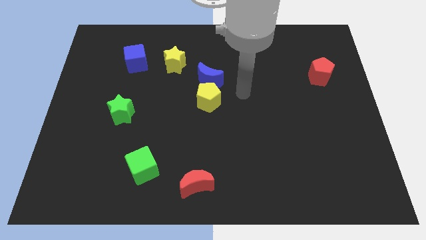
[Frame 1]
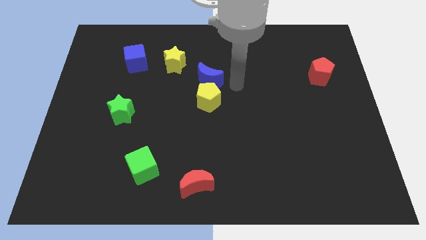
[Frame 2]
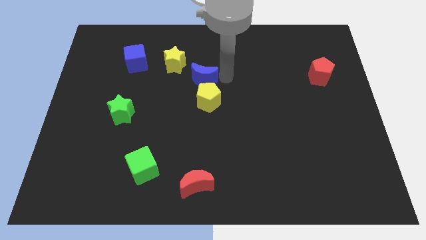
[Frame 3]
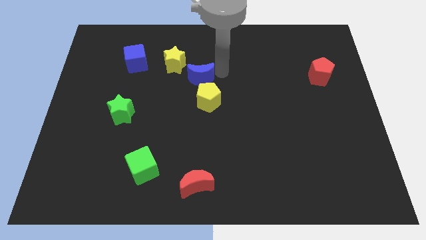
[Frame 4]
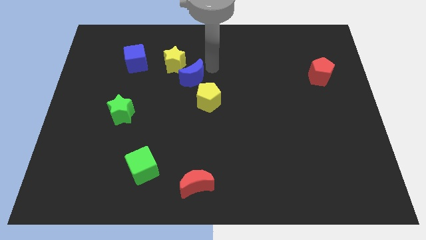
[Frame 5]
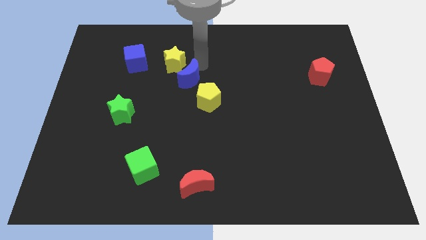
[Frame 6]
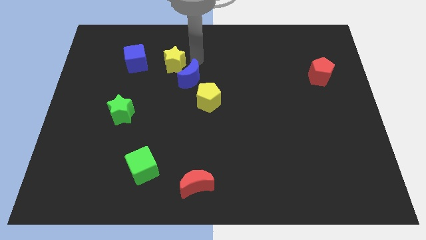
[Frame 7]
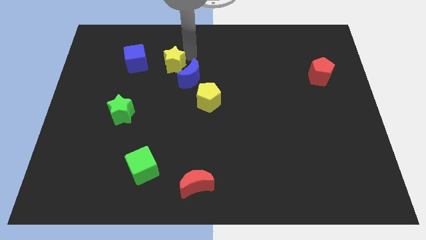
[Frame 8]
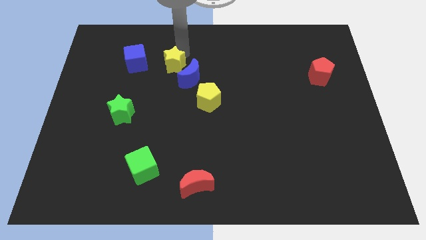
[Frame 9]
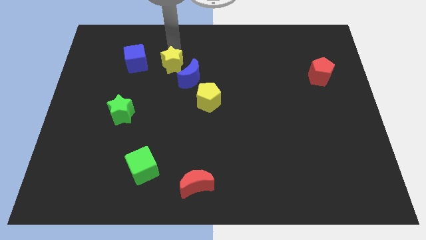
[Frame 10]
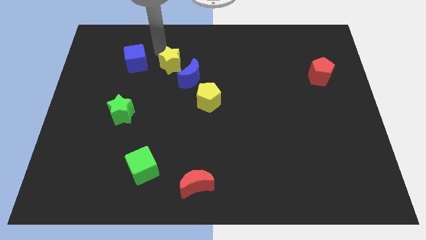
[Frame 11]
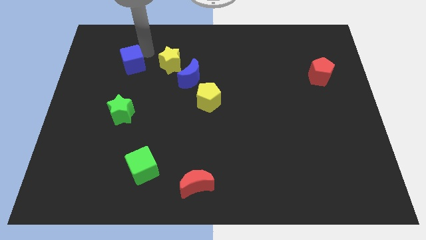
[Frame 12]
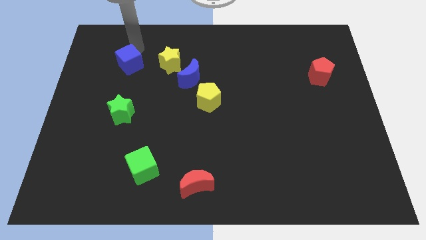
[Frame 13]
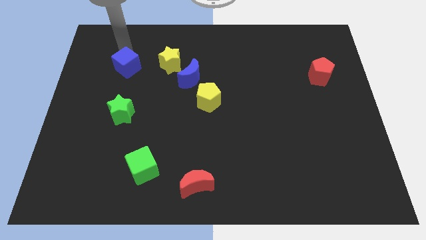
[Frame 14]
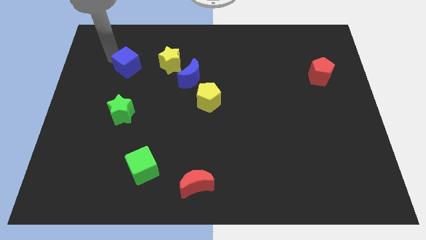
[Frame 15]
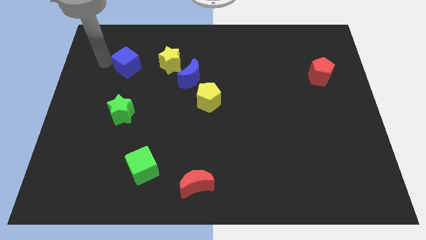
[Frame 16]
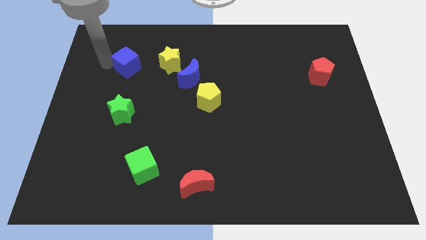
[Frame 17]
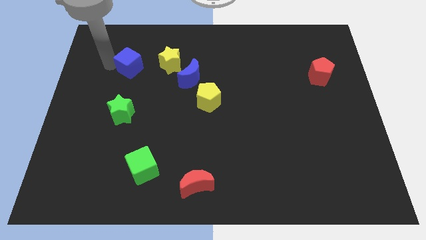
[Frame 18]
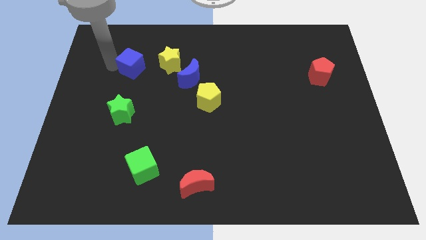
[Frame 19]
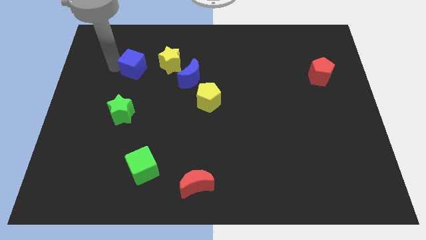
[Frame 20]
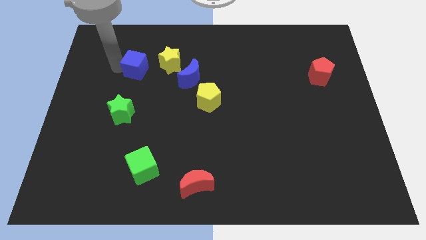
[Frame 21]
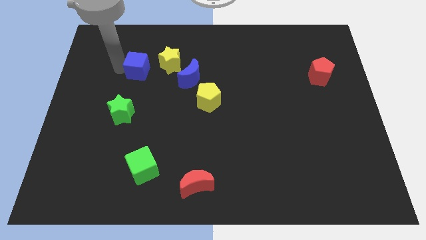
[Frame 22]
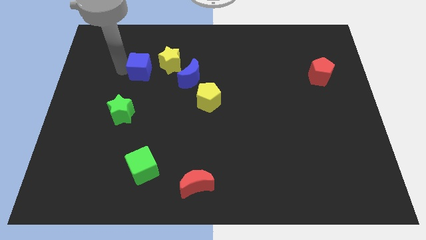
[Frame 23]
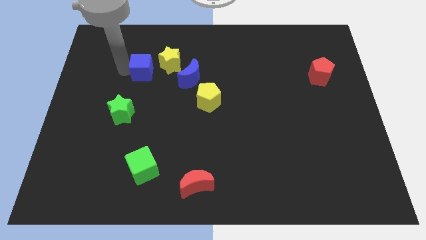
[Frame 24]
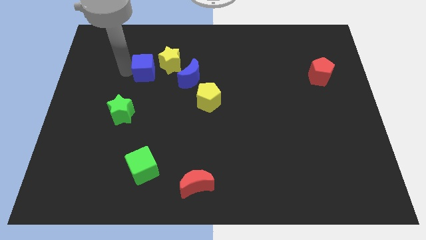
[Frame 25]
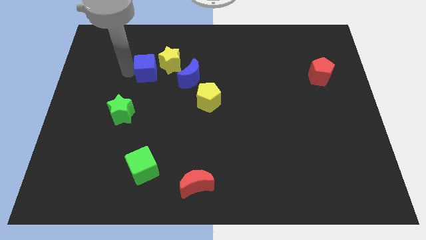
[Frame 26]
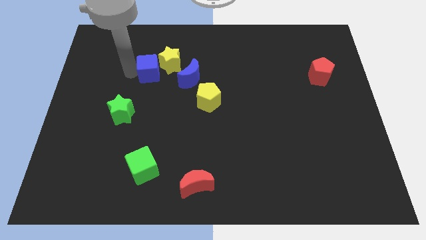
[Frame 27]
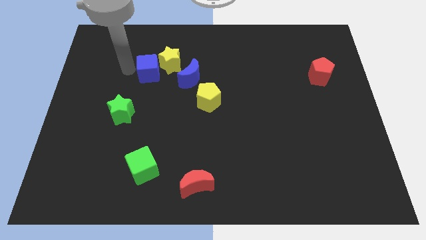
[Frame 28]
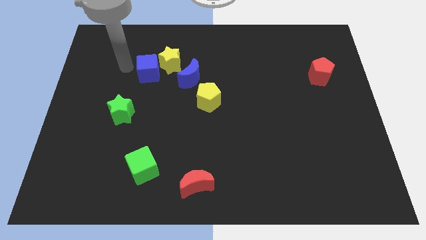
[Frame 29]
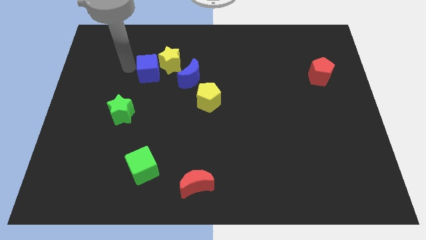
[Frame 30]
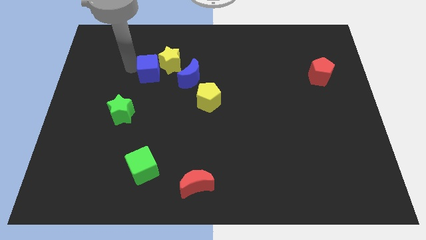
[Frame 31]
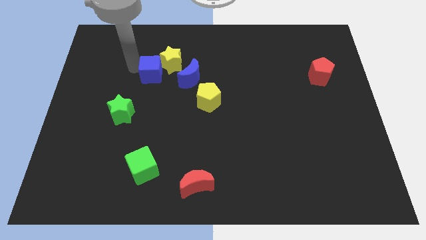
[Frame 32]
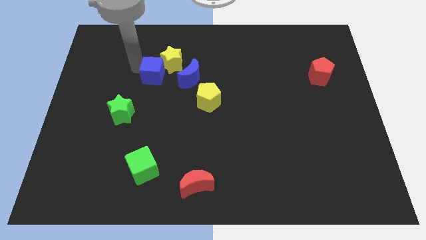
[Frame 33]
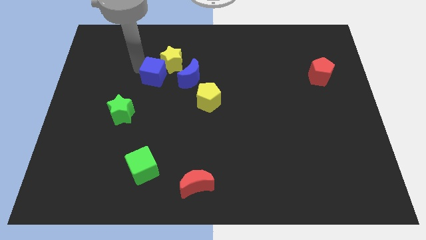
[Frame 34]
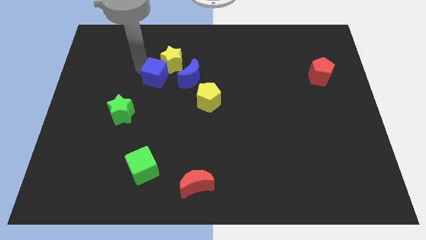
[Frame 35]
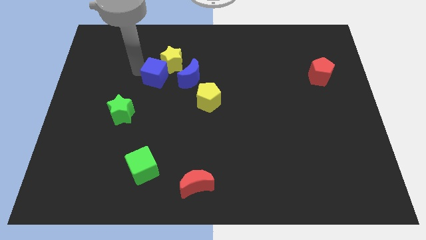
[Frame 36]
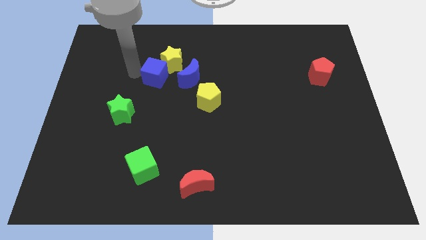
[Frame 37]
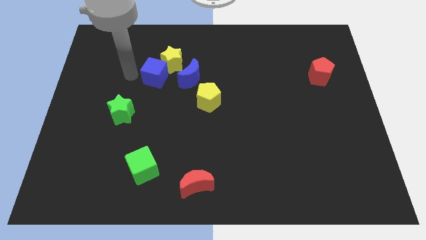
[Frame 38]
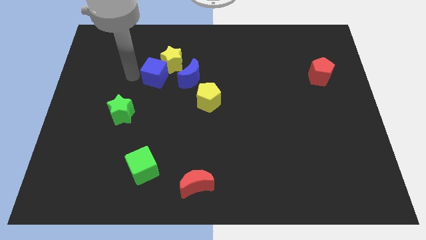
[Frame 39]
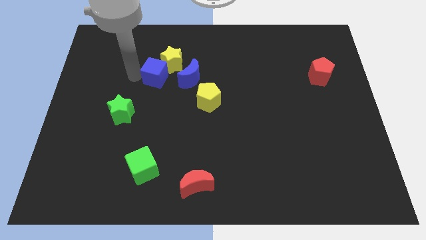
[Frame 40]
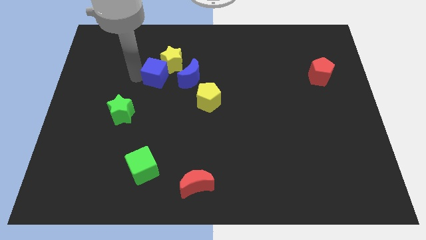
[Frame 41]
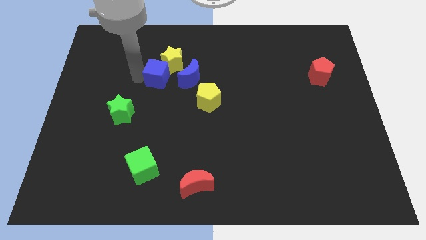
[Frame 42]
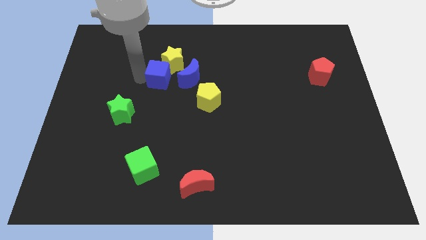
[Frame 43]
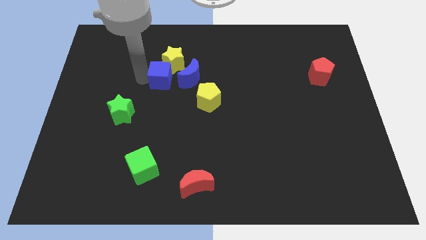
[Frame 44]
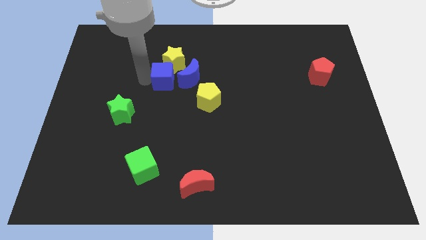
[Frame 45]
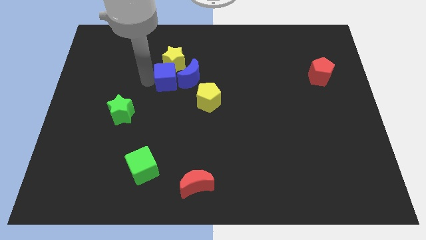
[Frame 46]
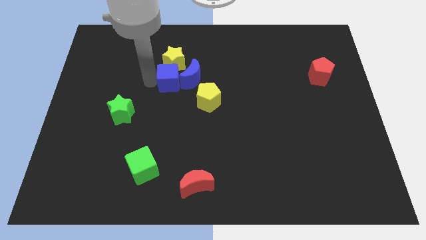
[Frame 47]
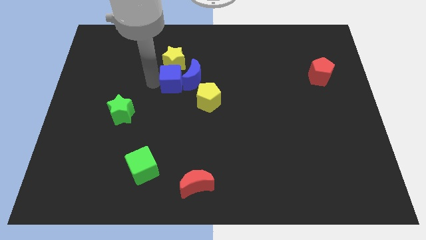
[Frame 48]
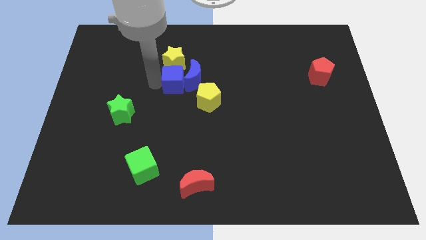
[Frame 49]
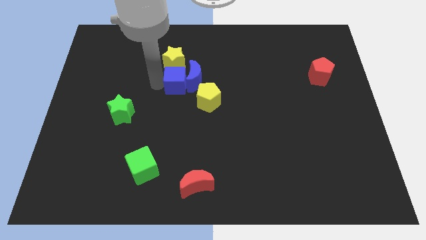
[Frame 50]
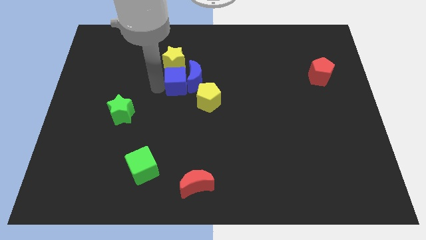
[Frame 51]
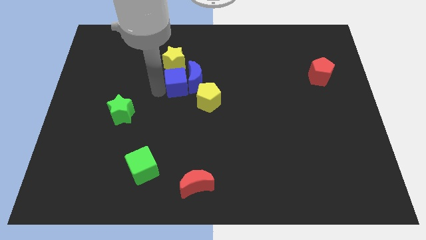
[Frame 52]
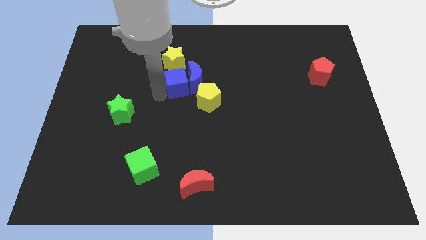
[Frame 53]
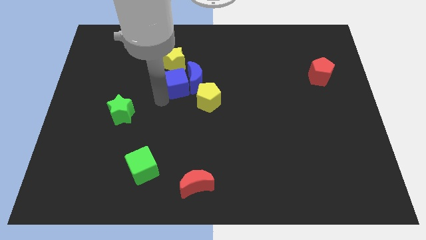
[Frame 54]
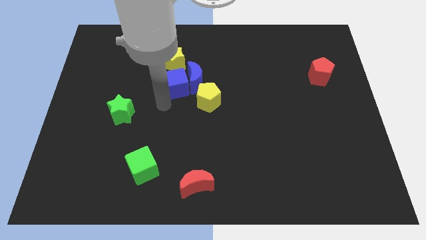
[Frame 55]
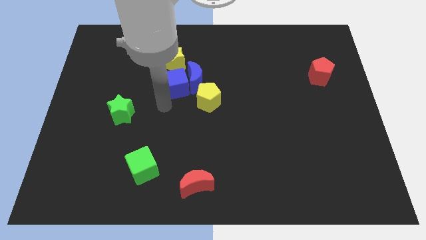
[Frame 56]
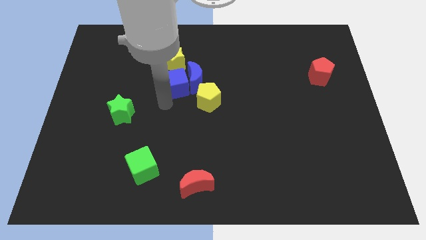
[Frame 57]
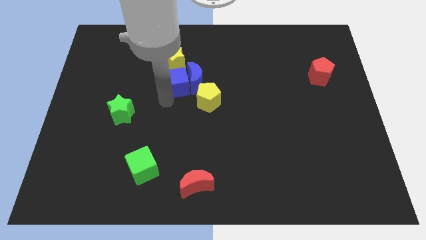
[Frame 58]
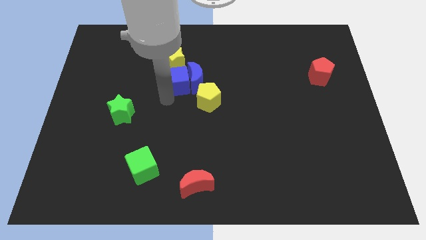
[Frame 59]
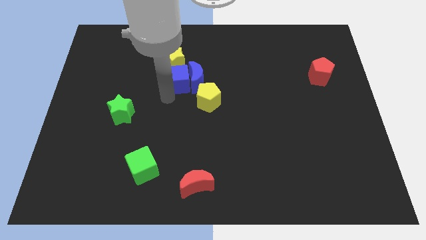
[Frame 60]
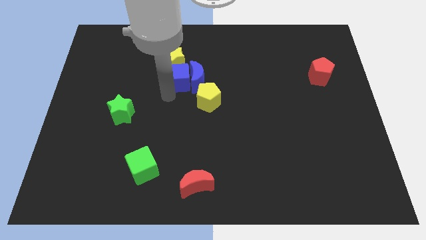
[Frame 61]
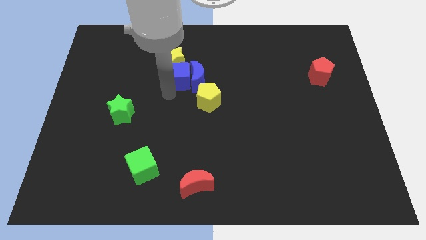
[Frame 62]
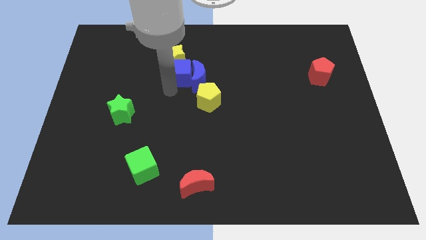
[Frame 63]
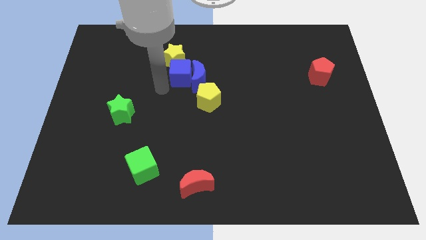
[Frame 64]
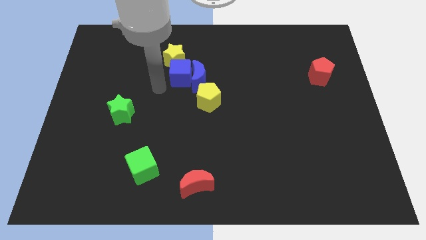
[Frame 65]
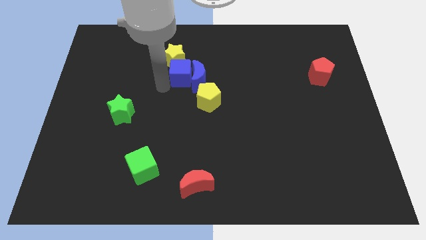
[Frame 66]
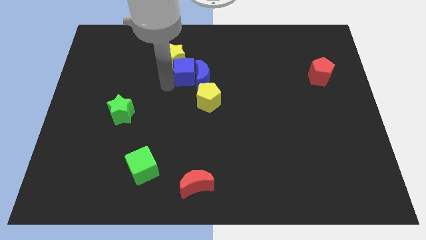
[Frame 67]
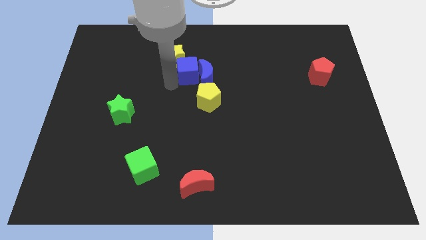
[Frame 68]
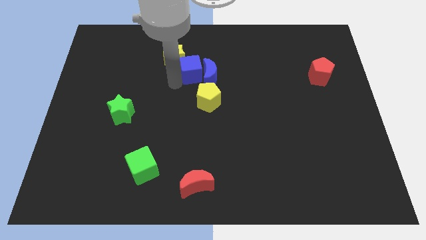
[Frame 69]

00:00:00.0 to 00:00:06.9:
slide the blue cube just right of the yellow star
